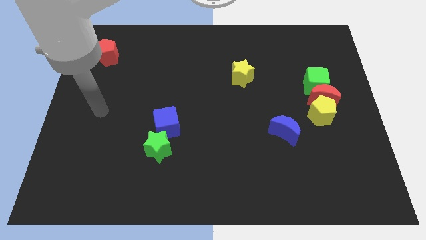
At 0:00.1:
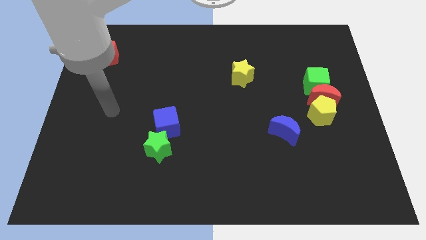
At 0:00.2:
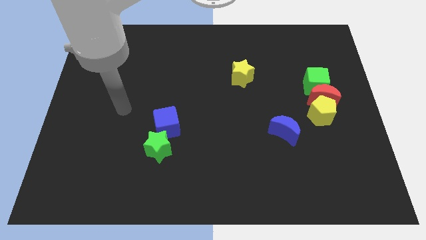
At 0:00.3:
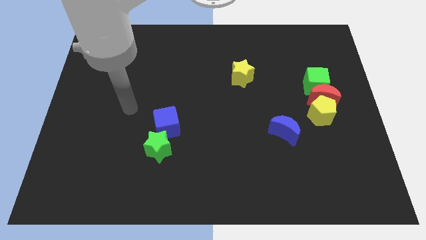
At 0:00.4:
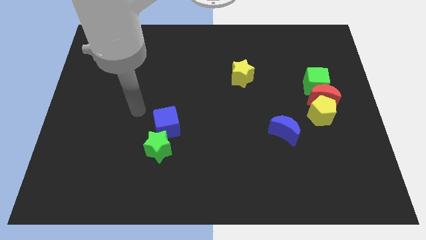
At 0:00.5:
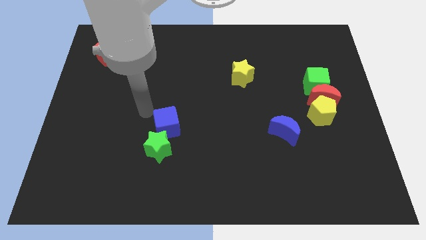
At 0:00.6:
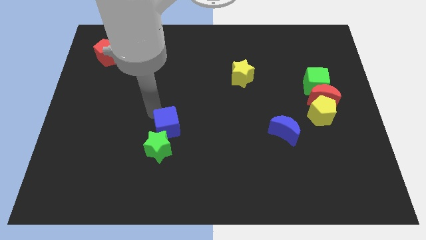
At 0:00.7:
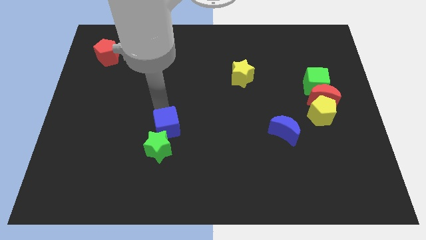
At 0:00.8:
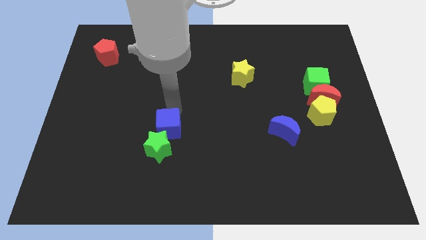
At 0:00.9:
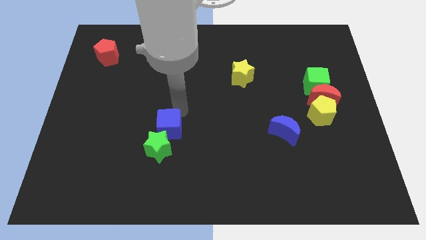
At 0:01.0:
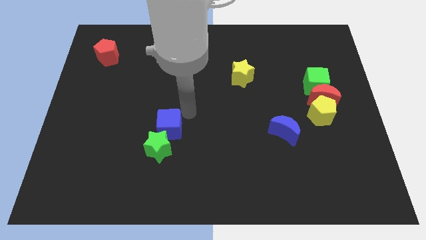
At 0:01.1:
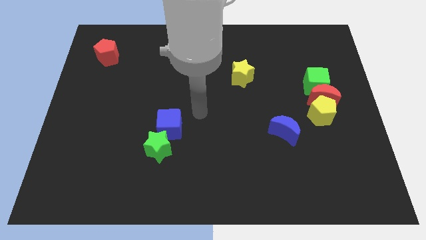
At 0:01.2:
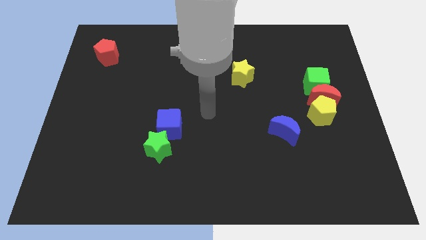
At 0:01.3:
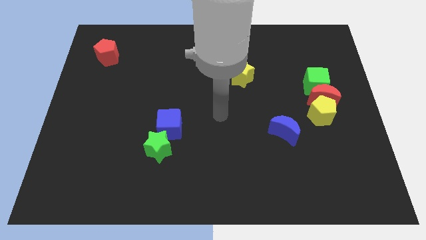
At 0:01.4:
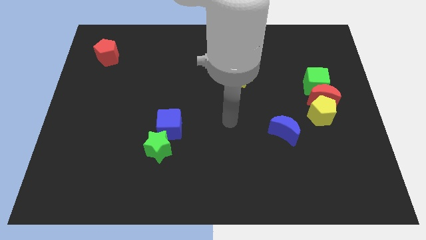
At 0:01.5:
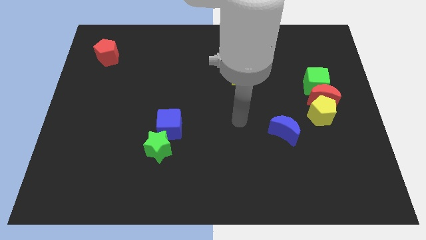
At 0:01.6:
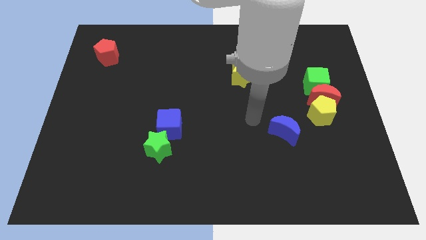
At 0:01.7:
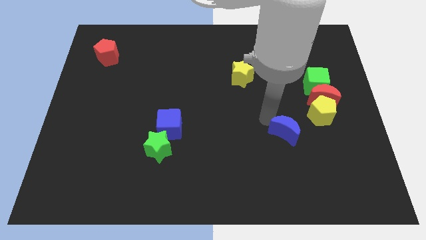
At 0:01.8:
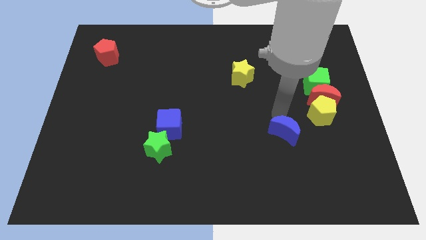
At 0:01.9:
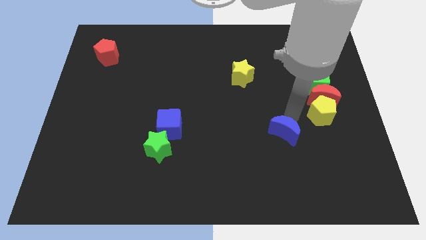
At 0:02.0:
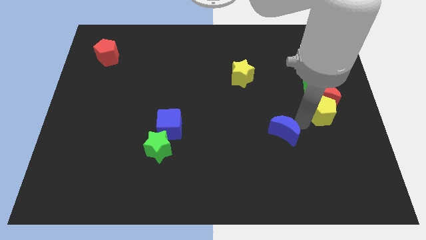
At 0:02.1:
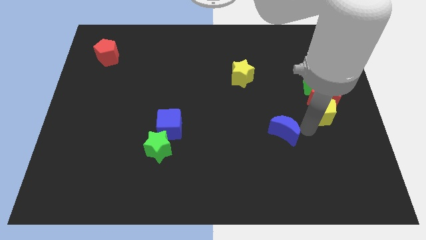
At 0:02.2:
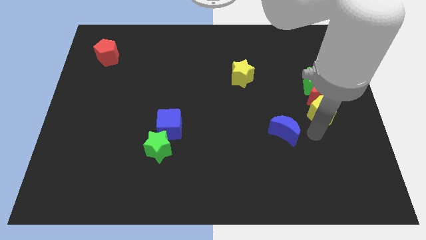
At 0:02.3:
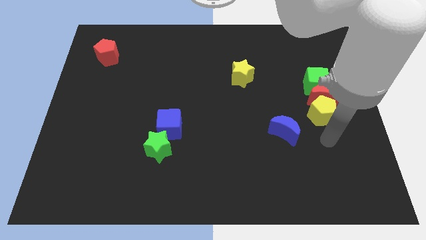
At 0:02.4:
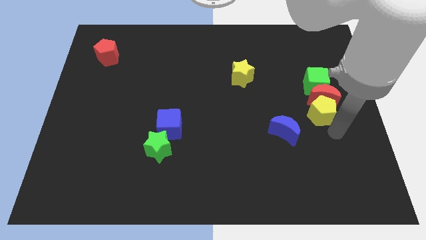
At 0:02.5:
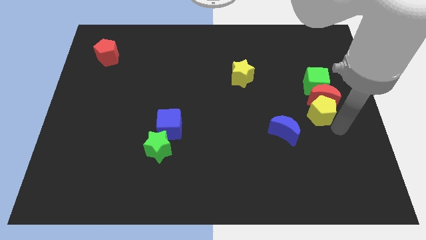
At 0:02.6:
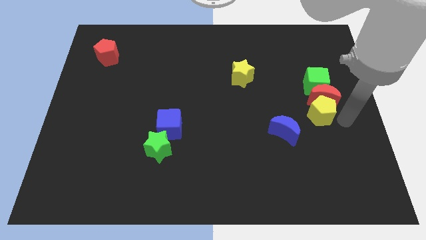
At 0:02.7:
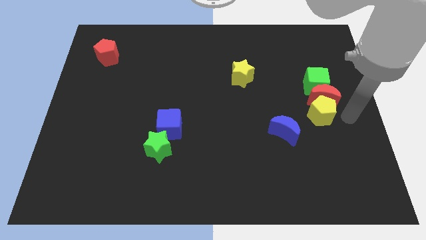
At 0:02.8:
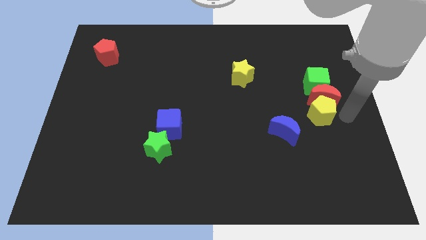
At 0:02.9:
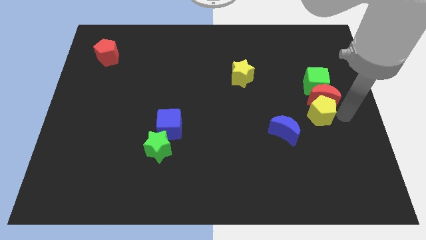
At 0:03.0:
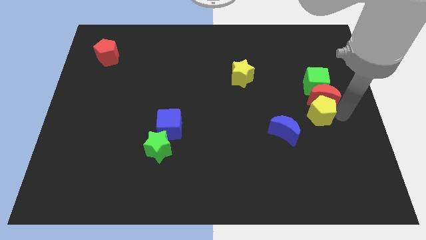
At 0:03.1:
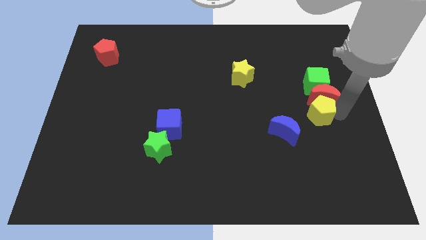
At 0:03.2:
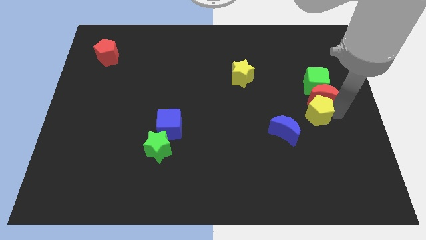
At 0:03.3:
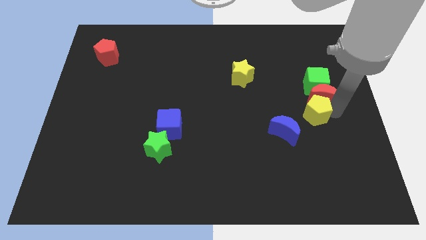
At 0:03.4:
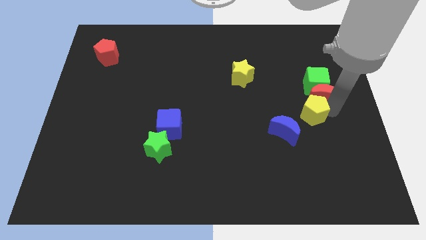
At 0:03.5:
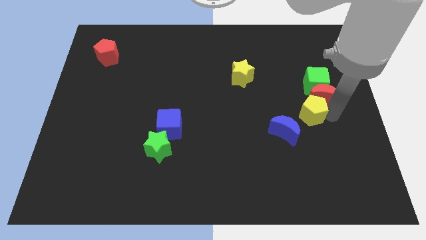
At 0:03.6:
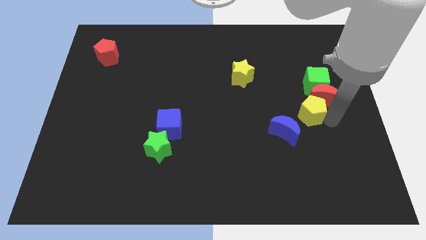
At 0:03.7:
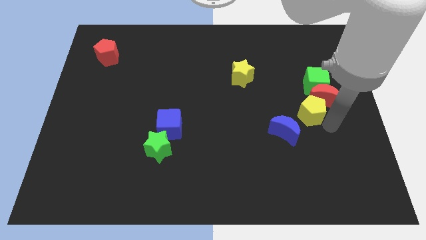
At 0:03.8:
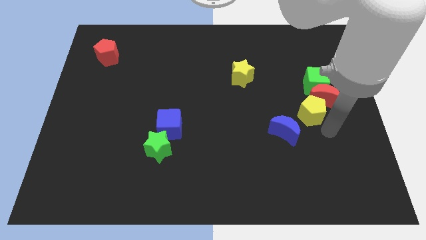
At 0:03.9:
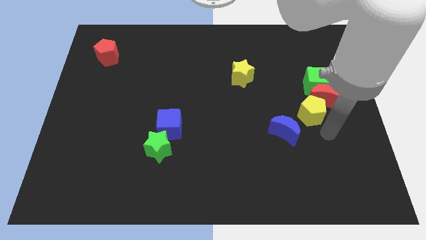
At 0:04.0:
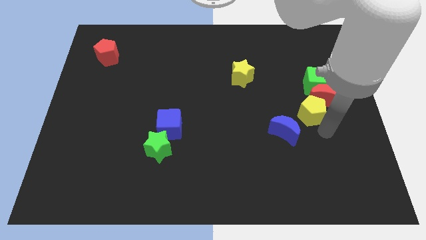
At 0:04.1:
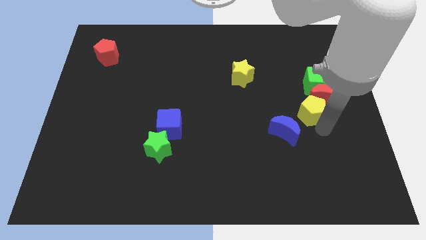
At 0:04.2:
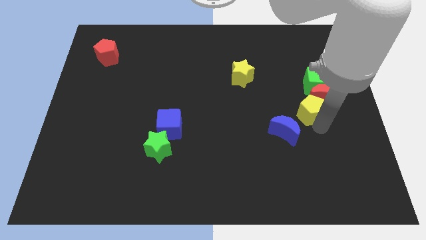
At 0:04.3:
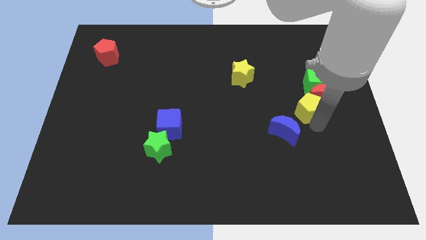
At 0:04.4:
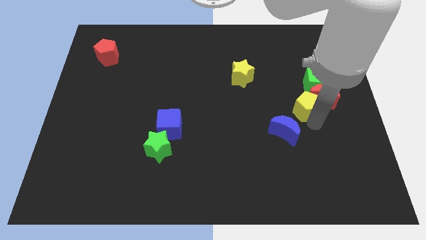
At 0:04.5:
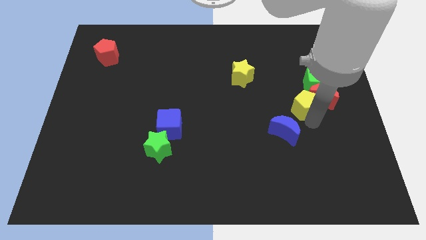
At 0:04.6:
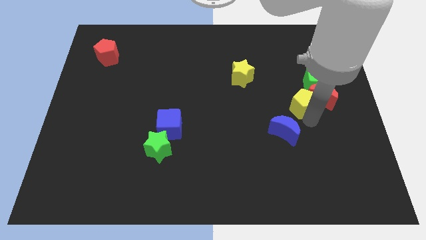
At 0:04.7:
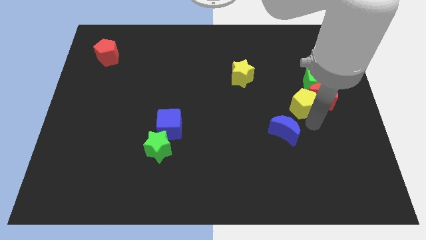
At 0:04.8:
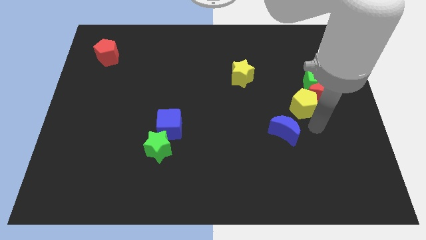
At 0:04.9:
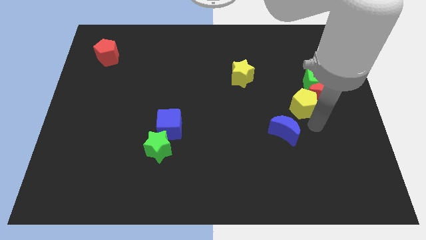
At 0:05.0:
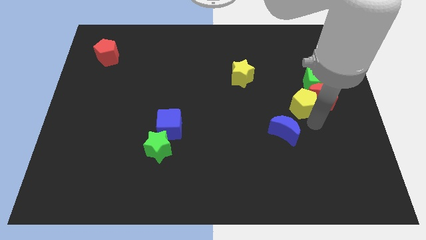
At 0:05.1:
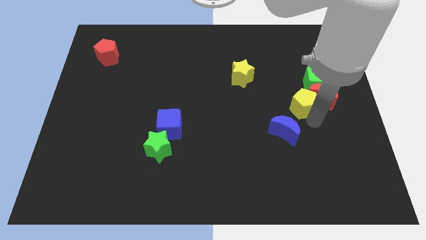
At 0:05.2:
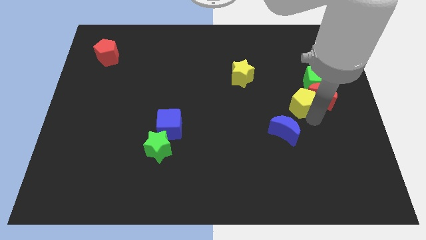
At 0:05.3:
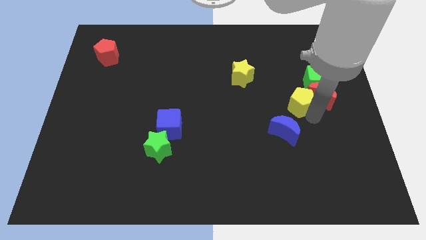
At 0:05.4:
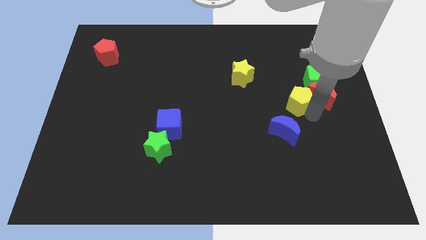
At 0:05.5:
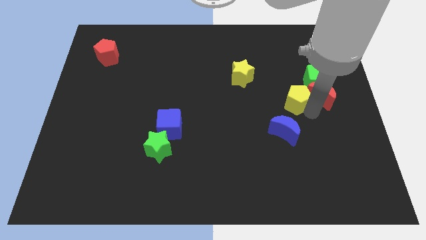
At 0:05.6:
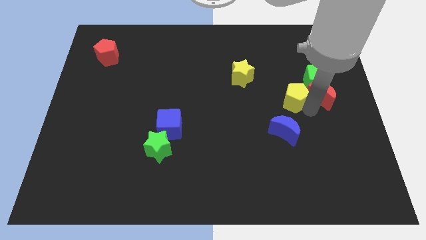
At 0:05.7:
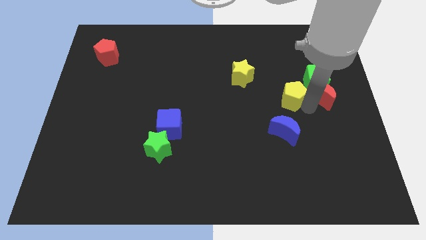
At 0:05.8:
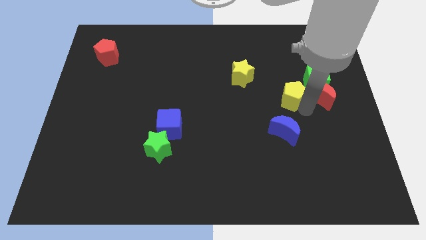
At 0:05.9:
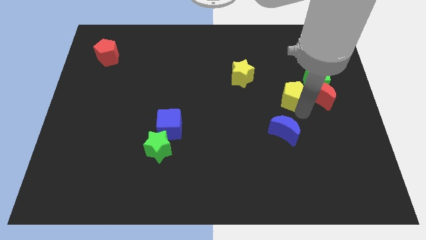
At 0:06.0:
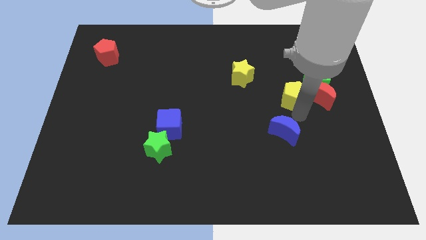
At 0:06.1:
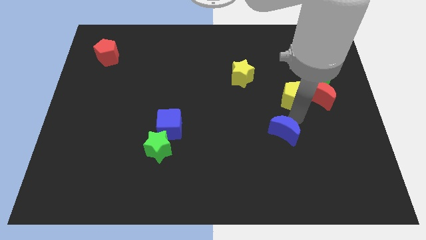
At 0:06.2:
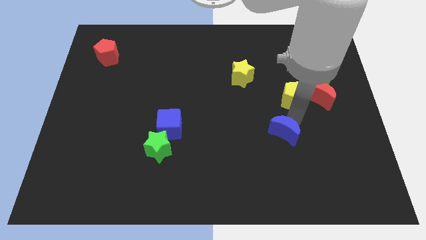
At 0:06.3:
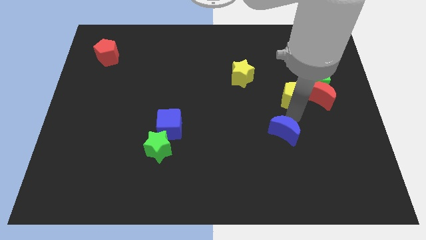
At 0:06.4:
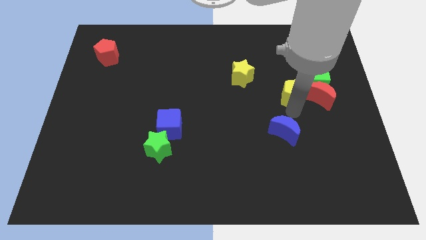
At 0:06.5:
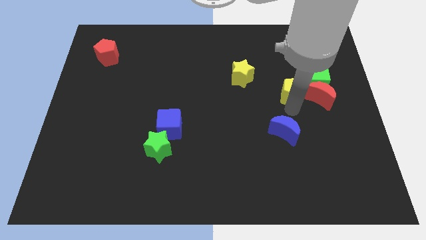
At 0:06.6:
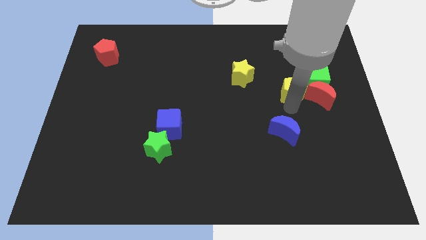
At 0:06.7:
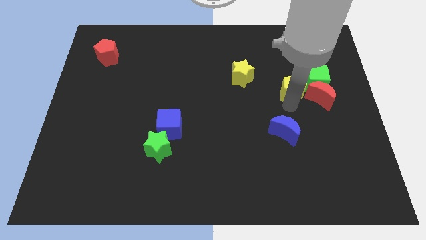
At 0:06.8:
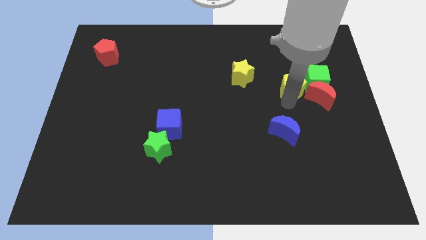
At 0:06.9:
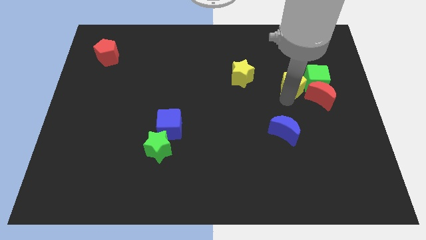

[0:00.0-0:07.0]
slightly push the yellow pentagon up

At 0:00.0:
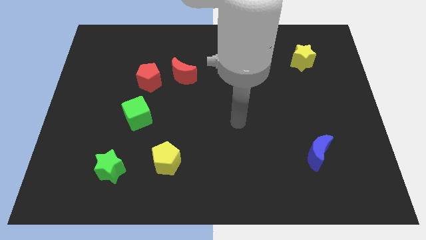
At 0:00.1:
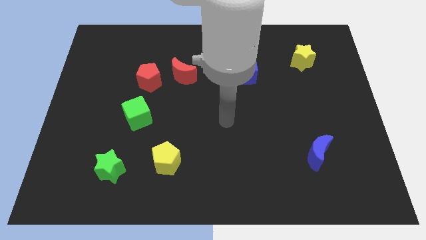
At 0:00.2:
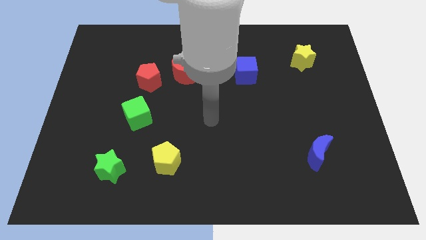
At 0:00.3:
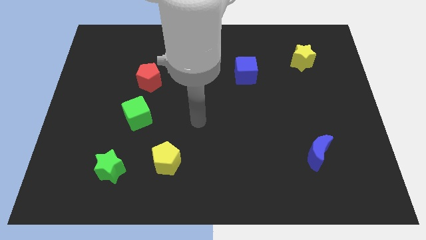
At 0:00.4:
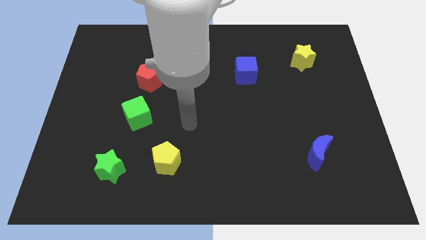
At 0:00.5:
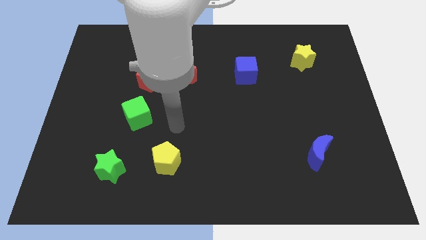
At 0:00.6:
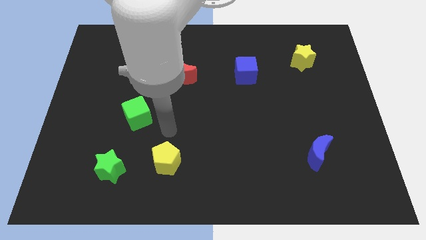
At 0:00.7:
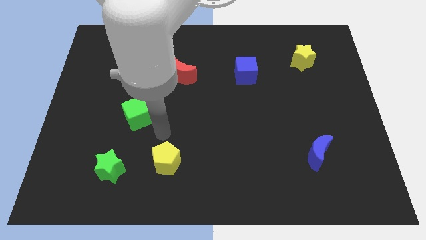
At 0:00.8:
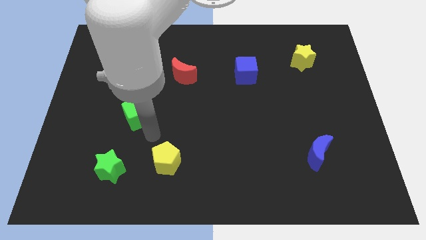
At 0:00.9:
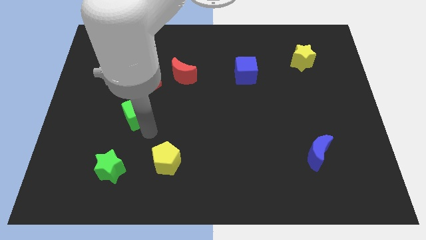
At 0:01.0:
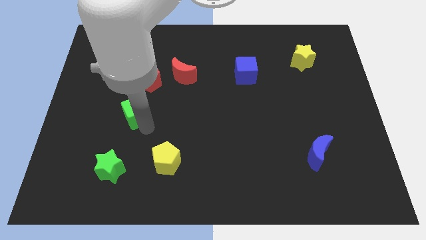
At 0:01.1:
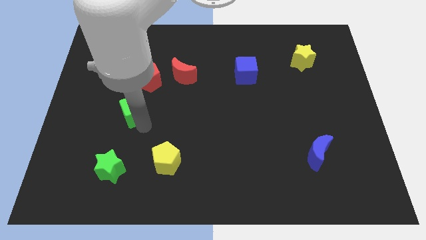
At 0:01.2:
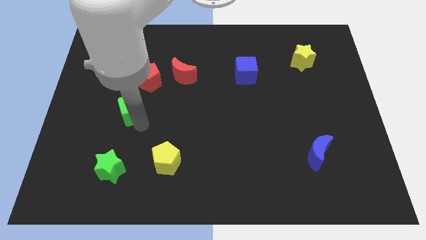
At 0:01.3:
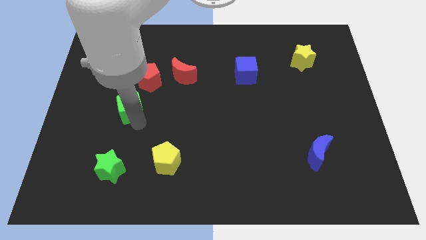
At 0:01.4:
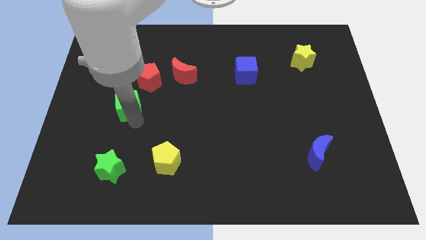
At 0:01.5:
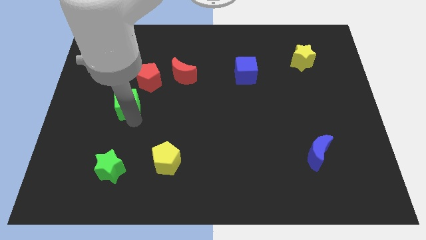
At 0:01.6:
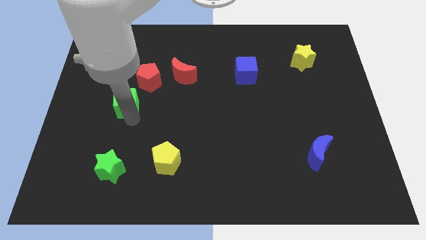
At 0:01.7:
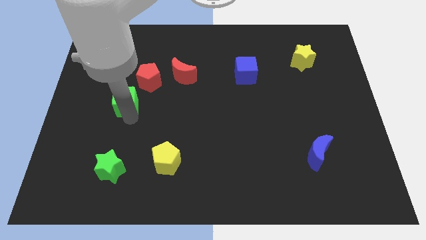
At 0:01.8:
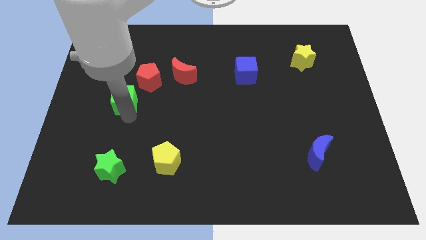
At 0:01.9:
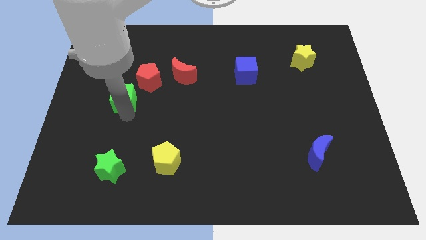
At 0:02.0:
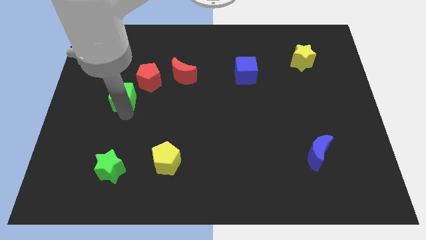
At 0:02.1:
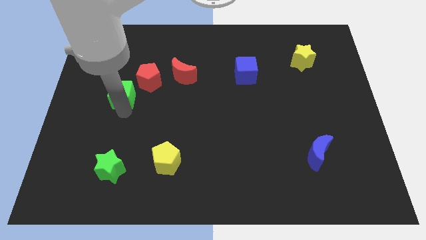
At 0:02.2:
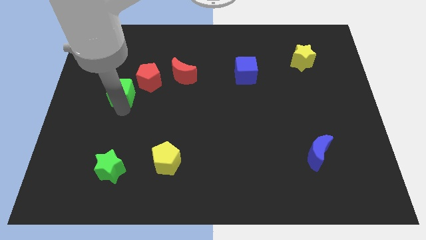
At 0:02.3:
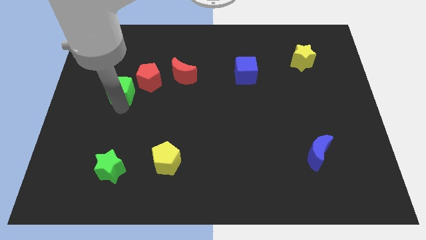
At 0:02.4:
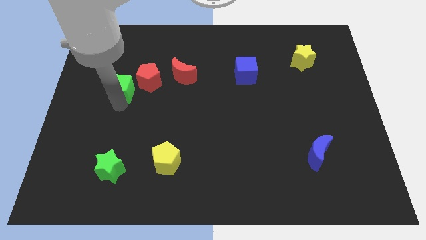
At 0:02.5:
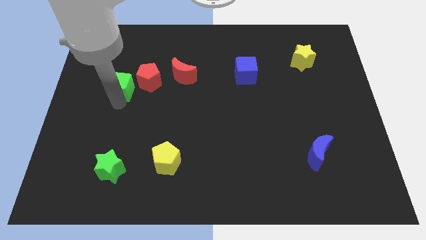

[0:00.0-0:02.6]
slightly move the green cube upwards
